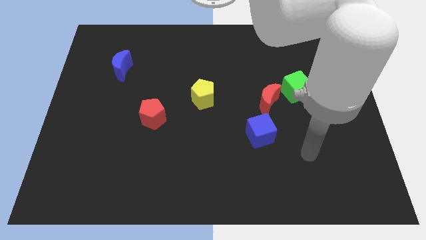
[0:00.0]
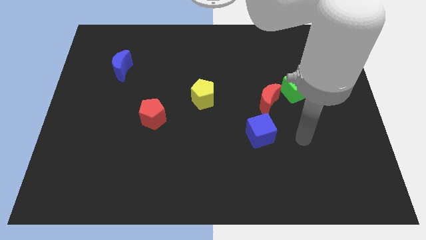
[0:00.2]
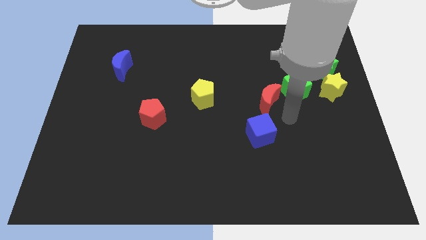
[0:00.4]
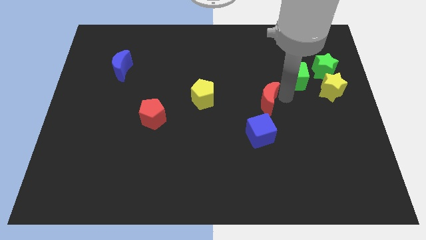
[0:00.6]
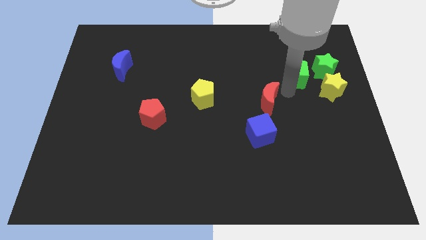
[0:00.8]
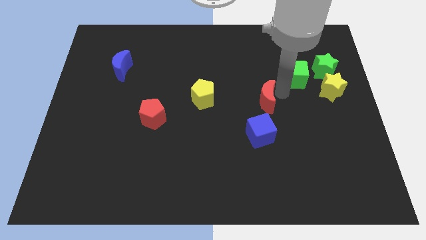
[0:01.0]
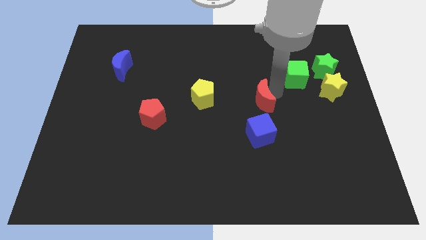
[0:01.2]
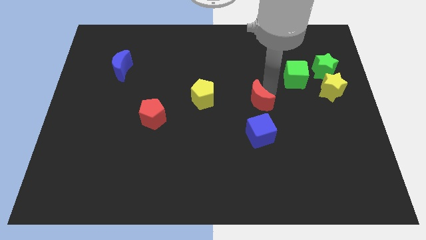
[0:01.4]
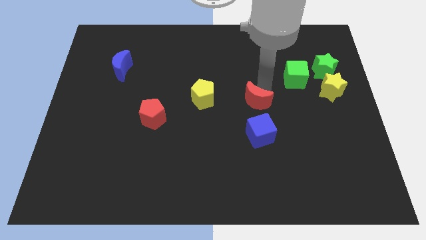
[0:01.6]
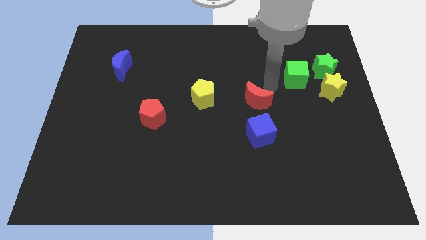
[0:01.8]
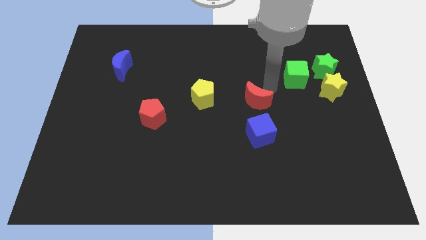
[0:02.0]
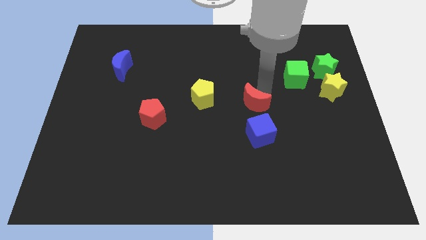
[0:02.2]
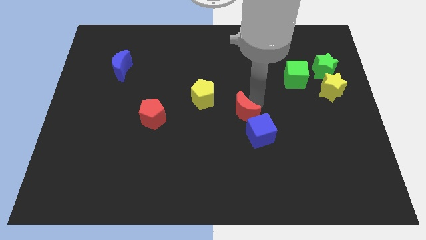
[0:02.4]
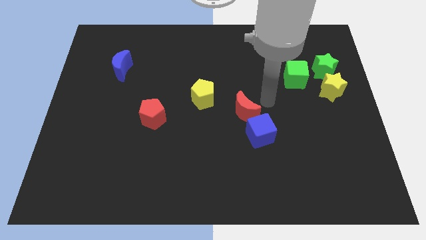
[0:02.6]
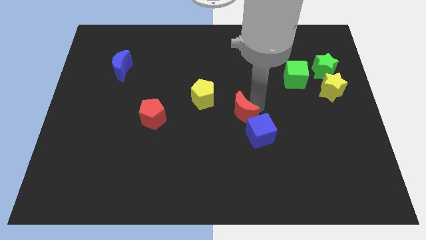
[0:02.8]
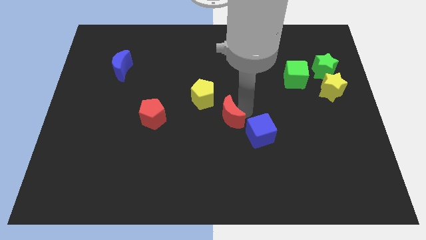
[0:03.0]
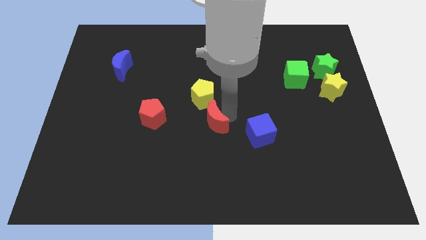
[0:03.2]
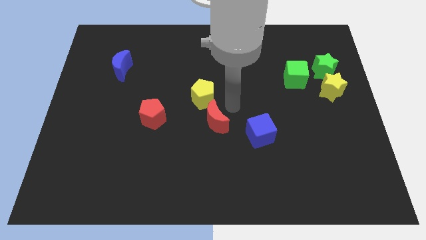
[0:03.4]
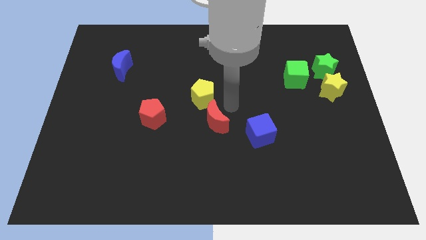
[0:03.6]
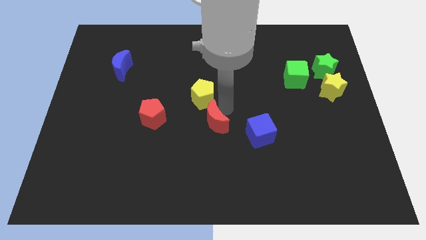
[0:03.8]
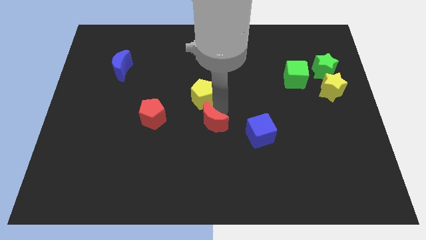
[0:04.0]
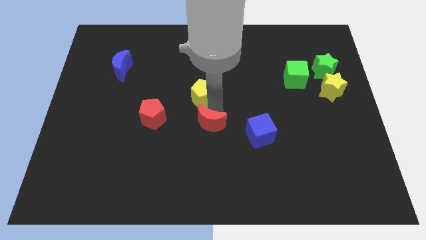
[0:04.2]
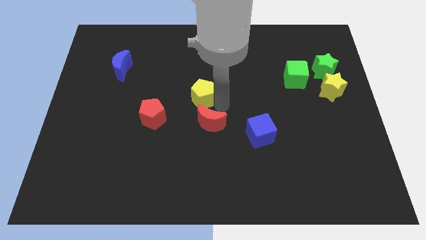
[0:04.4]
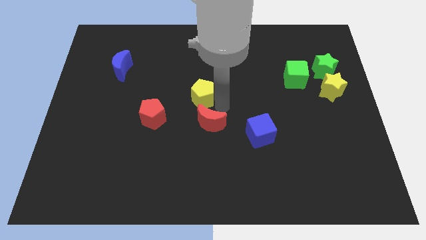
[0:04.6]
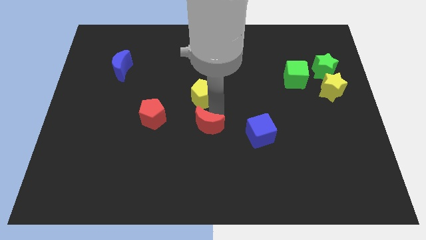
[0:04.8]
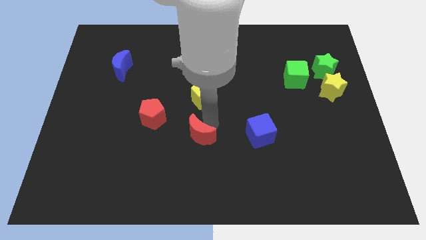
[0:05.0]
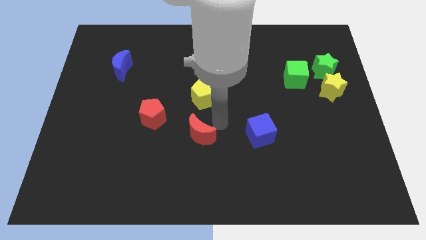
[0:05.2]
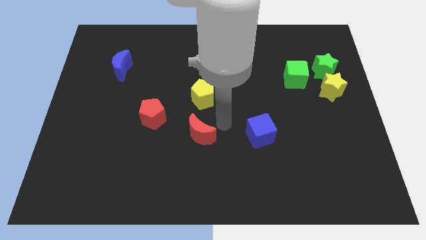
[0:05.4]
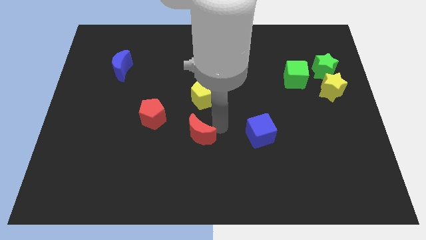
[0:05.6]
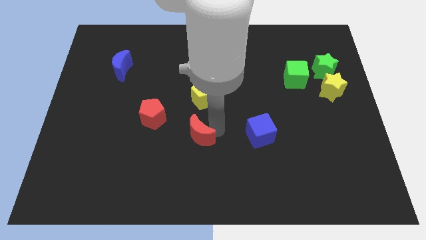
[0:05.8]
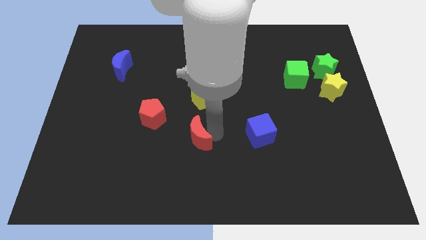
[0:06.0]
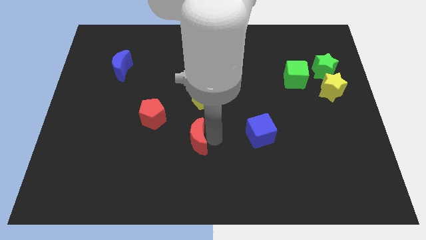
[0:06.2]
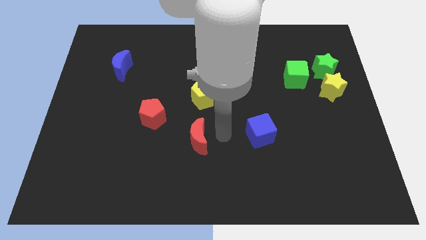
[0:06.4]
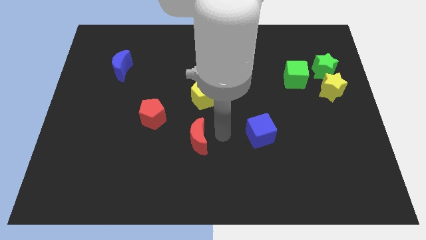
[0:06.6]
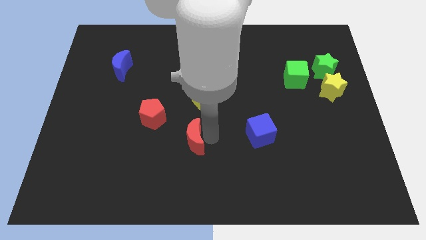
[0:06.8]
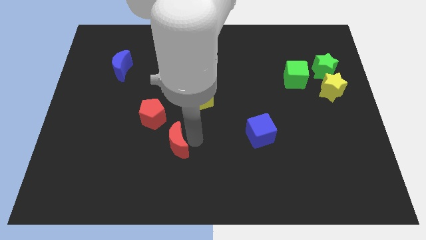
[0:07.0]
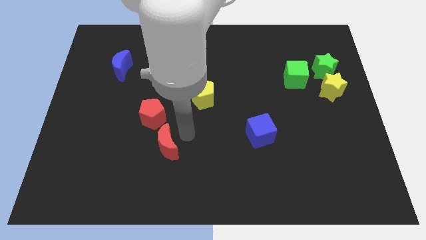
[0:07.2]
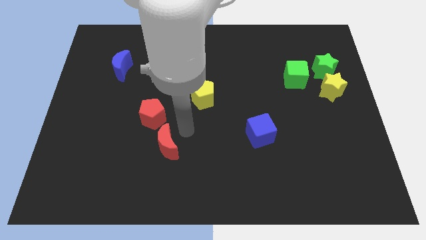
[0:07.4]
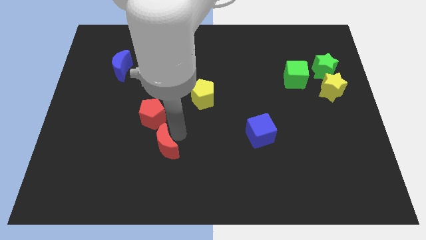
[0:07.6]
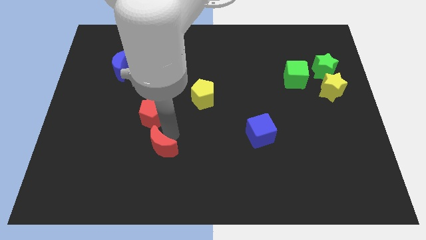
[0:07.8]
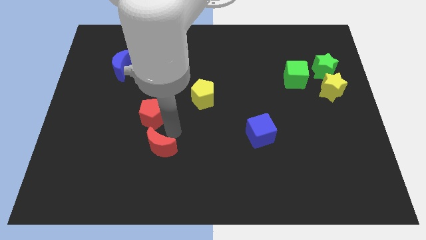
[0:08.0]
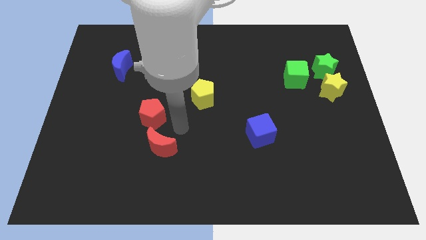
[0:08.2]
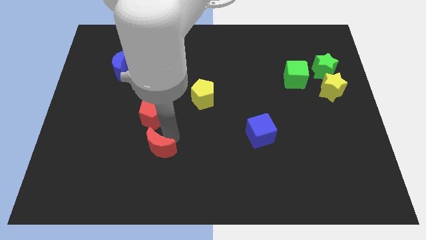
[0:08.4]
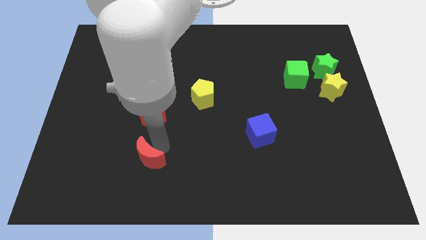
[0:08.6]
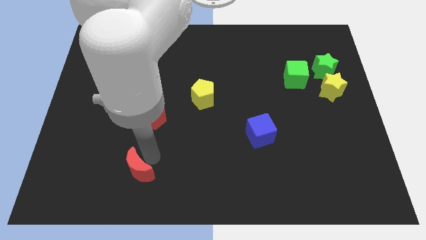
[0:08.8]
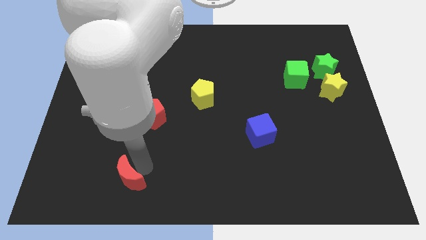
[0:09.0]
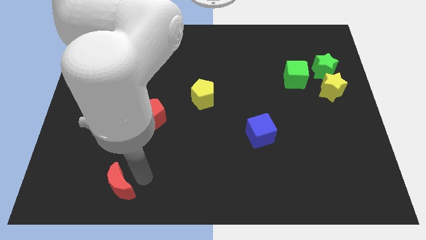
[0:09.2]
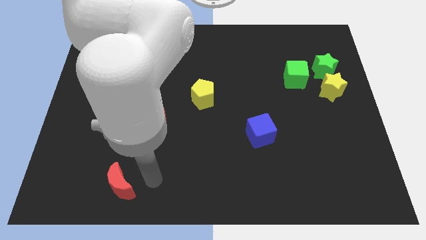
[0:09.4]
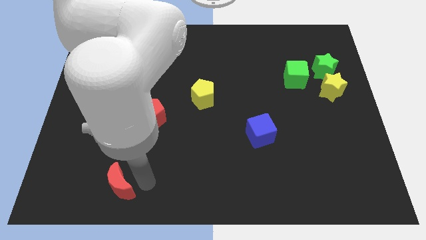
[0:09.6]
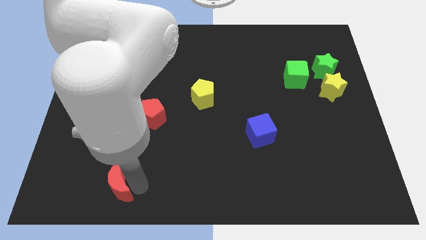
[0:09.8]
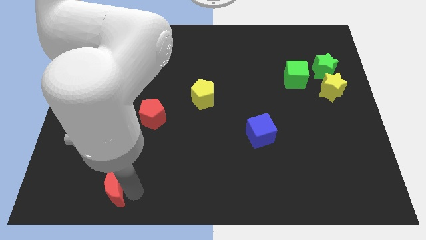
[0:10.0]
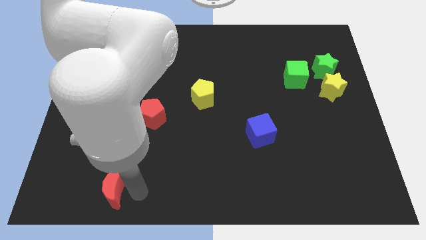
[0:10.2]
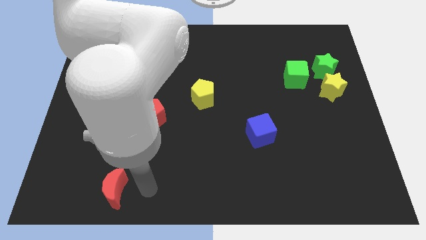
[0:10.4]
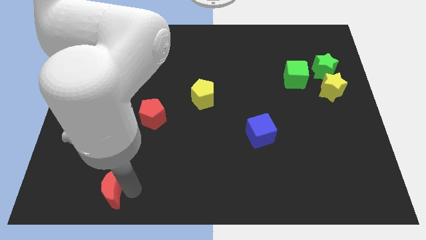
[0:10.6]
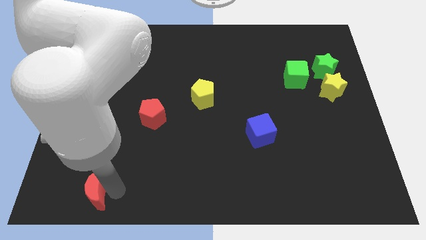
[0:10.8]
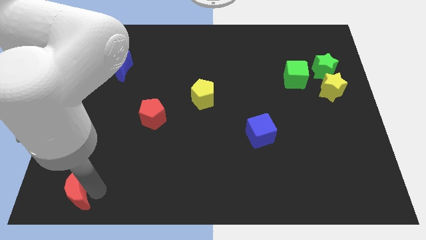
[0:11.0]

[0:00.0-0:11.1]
slide the red moon to the bottom left

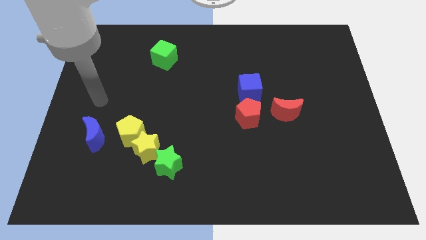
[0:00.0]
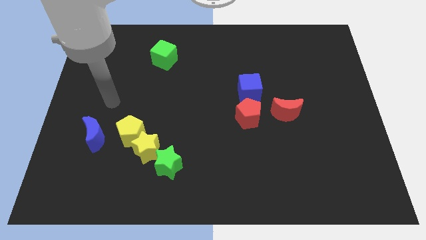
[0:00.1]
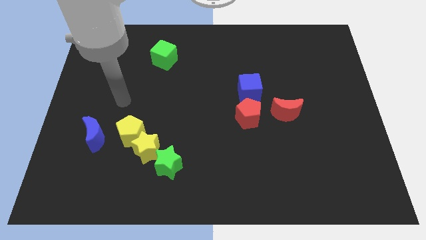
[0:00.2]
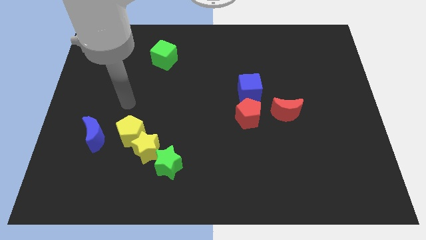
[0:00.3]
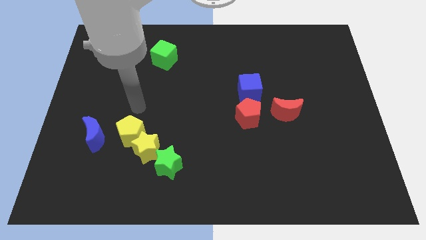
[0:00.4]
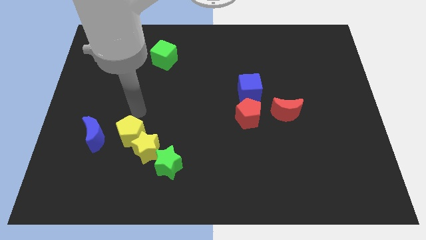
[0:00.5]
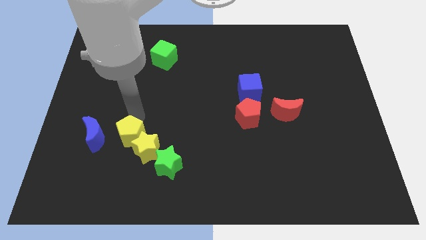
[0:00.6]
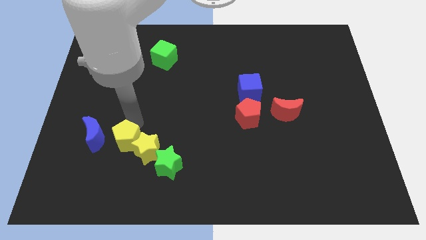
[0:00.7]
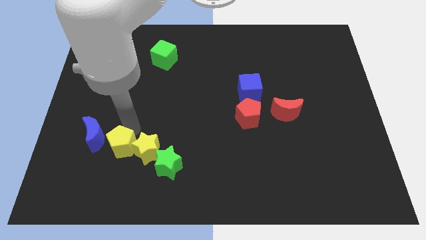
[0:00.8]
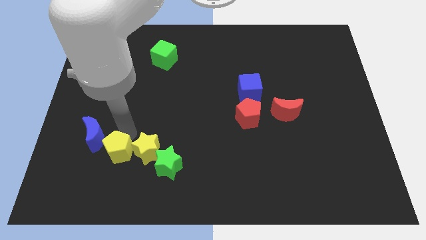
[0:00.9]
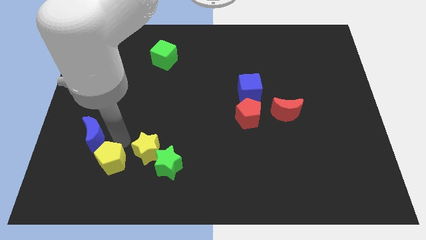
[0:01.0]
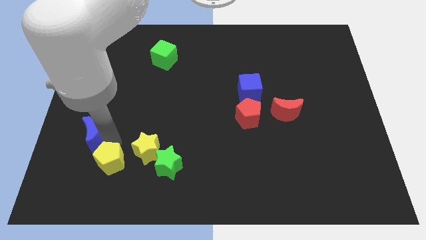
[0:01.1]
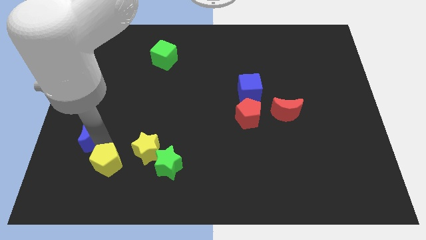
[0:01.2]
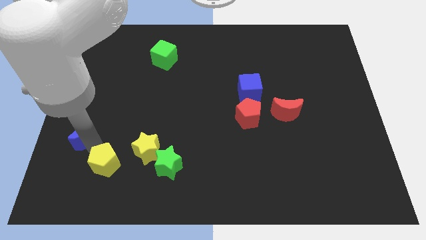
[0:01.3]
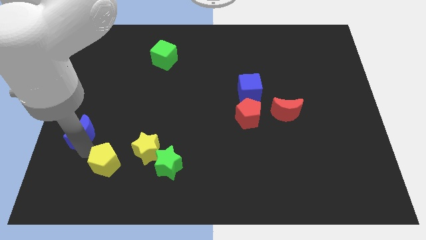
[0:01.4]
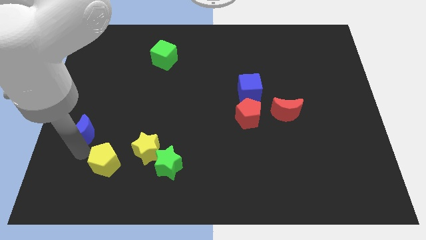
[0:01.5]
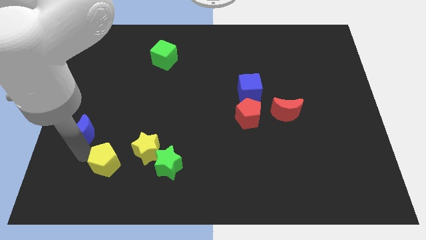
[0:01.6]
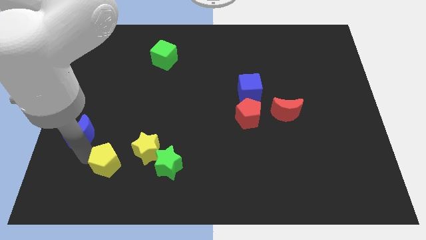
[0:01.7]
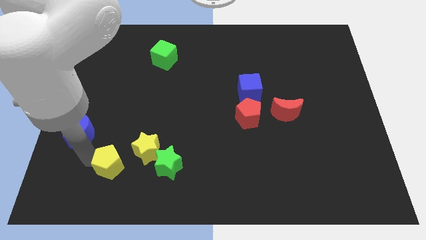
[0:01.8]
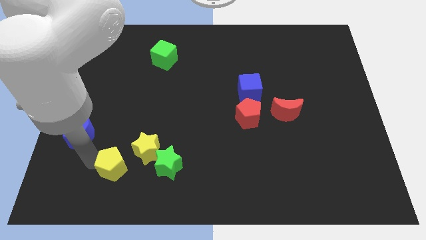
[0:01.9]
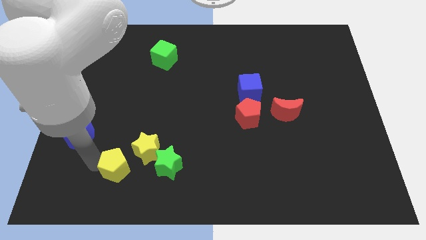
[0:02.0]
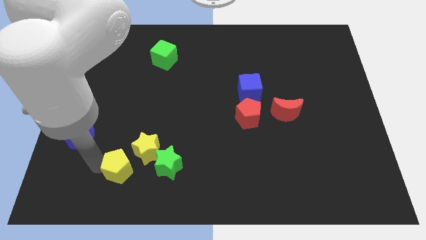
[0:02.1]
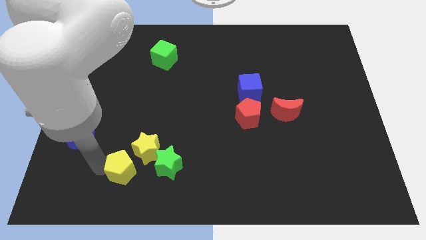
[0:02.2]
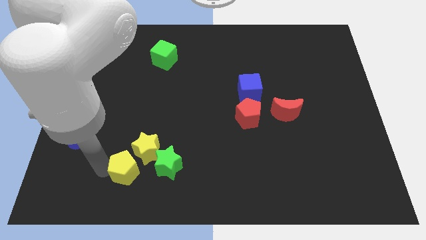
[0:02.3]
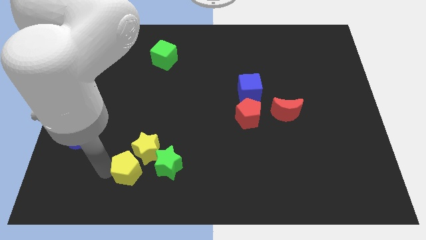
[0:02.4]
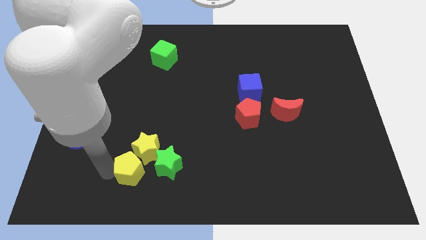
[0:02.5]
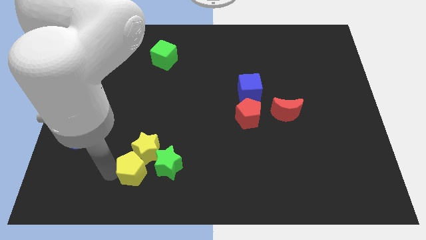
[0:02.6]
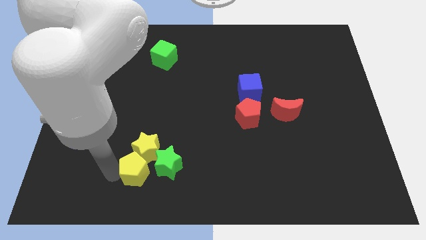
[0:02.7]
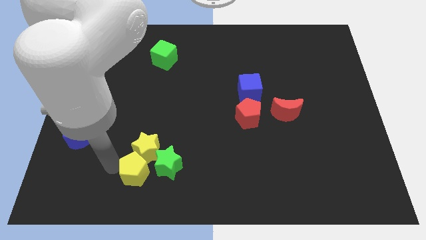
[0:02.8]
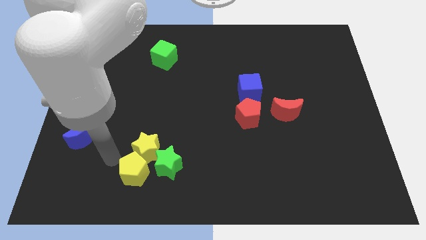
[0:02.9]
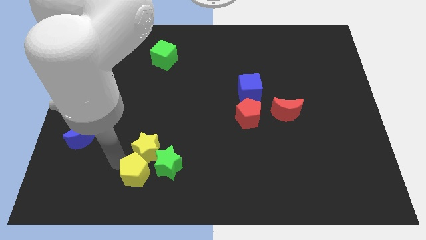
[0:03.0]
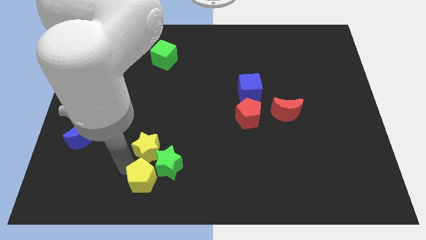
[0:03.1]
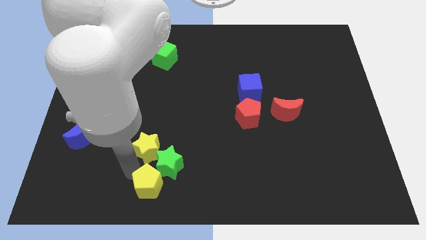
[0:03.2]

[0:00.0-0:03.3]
move the yellow pentagon to the bottom side
